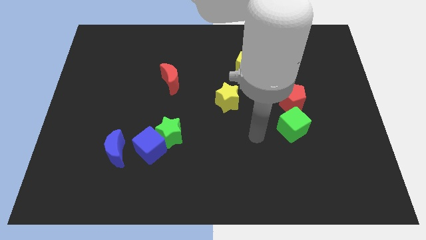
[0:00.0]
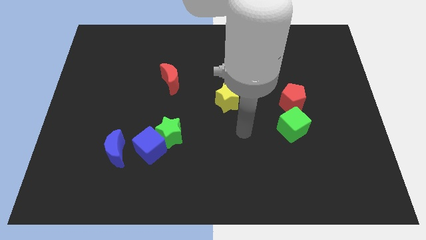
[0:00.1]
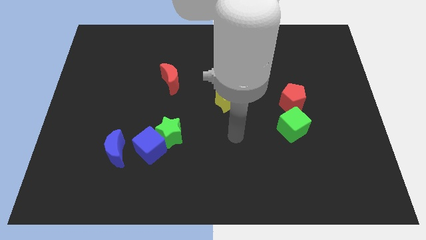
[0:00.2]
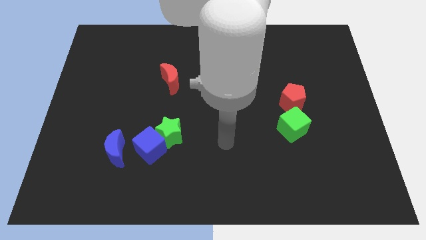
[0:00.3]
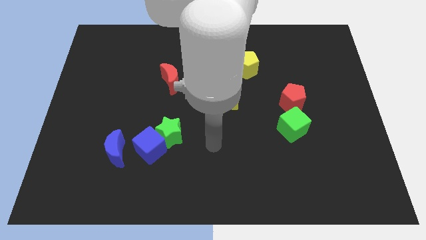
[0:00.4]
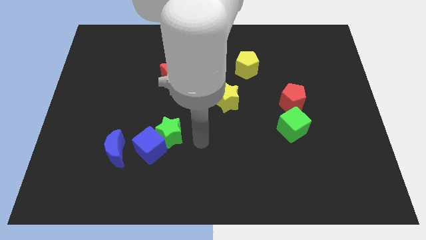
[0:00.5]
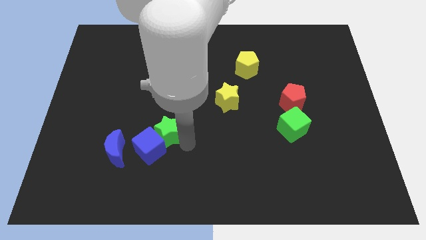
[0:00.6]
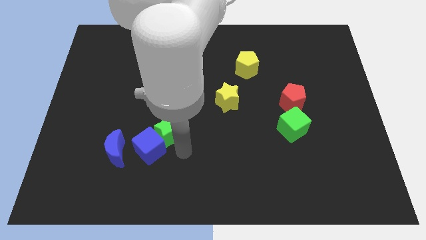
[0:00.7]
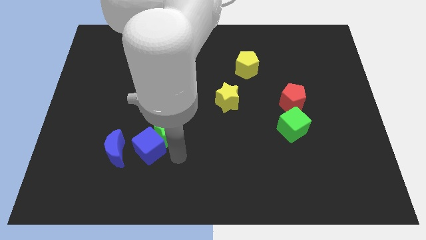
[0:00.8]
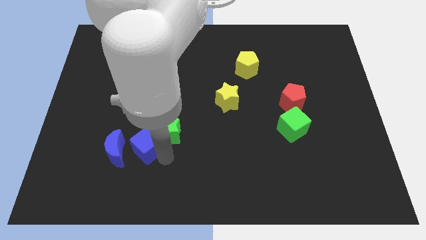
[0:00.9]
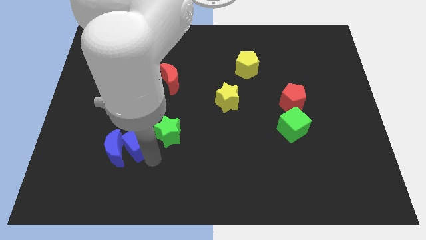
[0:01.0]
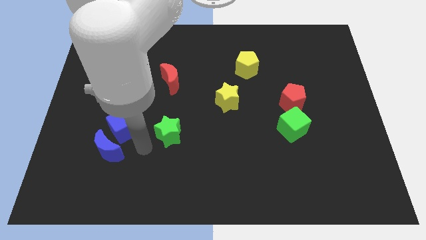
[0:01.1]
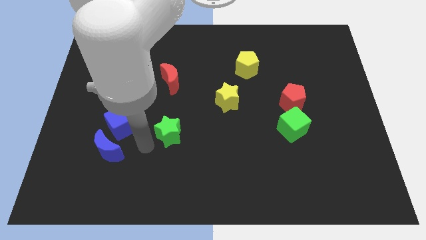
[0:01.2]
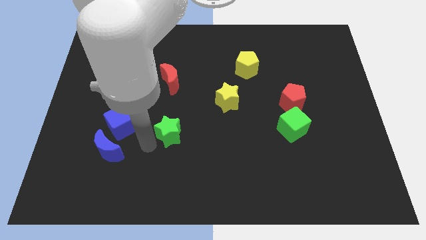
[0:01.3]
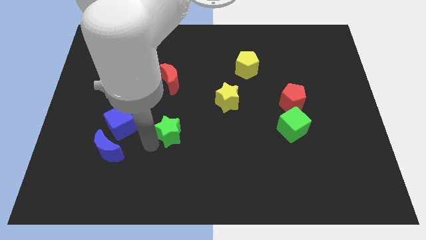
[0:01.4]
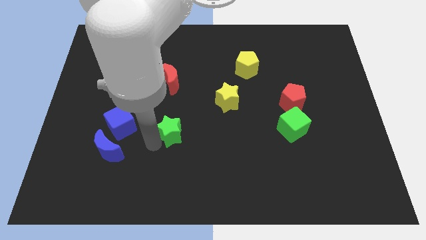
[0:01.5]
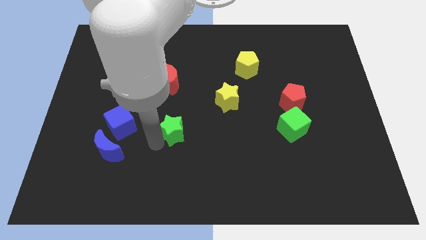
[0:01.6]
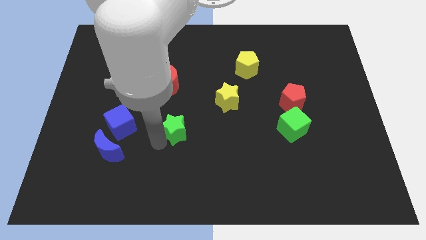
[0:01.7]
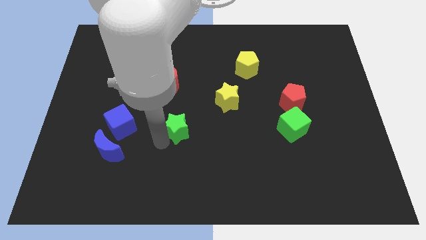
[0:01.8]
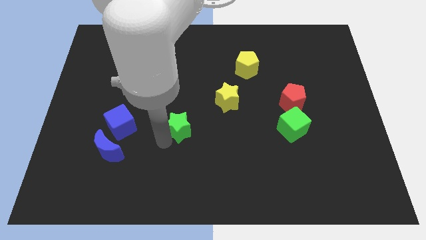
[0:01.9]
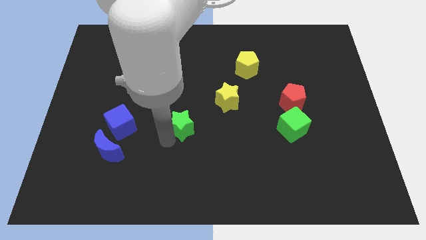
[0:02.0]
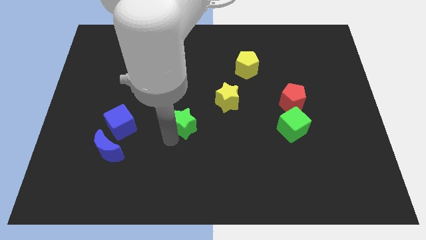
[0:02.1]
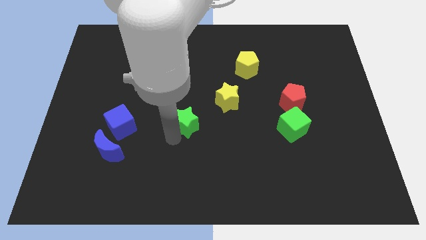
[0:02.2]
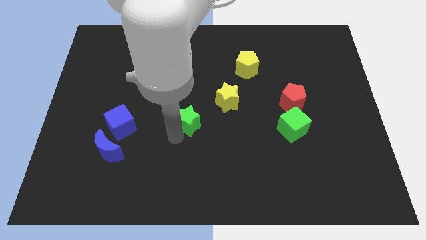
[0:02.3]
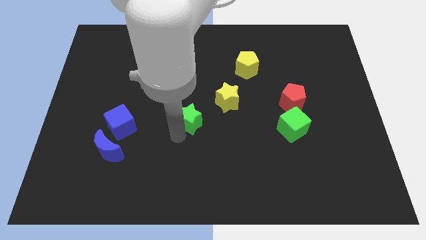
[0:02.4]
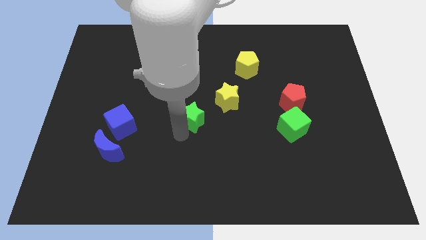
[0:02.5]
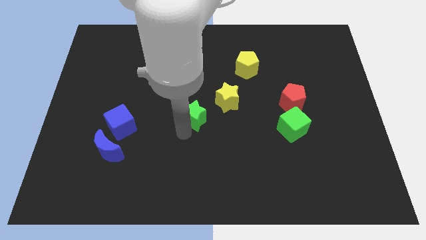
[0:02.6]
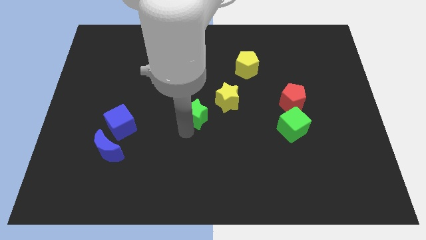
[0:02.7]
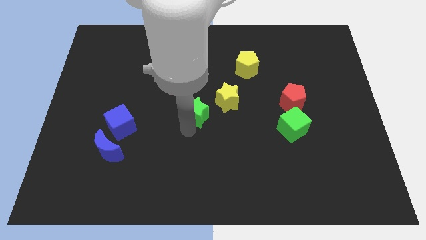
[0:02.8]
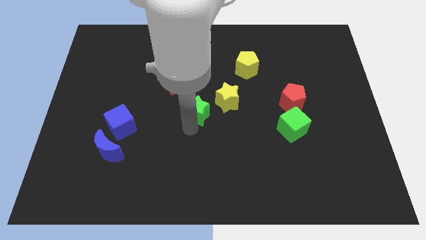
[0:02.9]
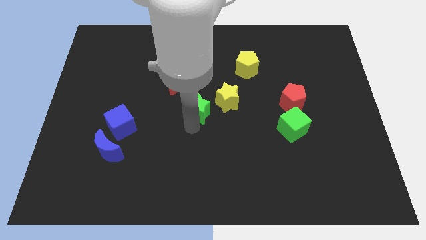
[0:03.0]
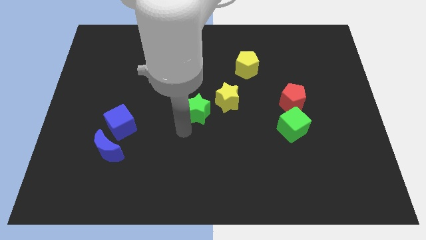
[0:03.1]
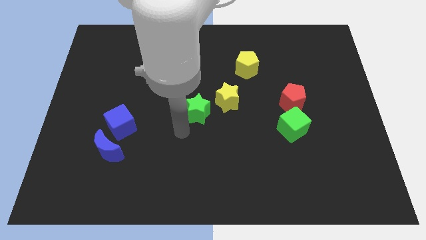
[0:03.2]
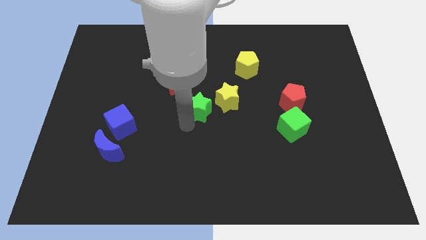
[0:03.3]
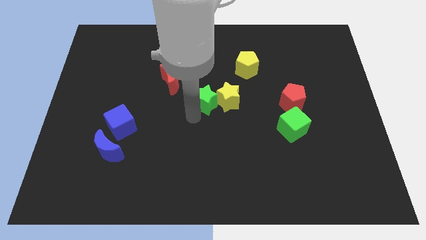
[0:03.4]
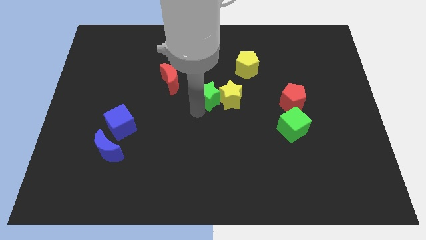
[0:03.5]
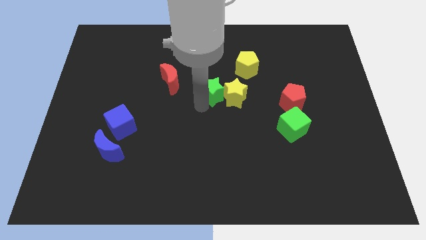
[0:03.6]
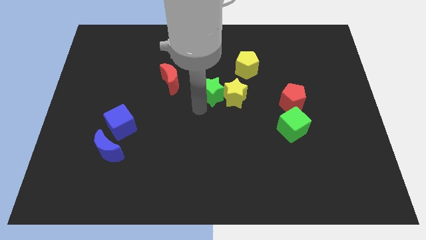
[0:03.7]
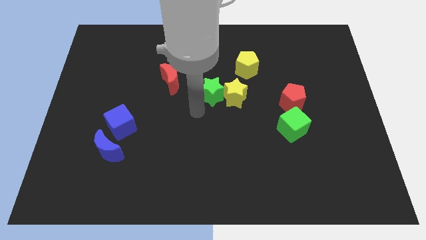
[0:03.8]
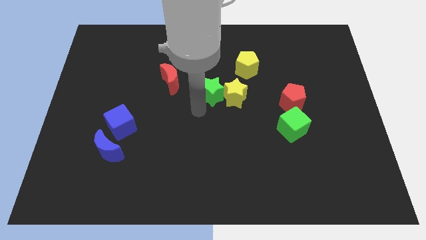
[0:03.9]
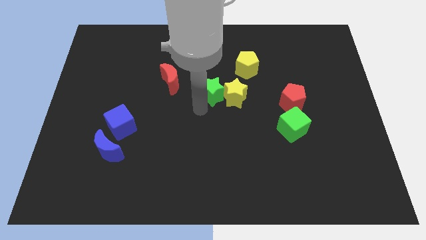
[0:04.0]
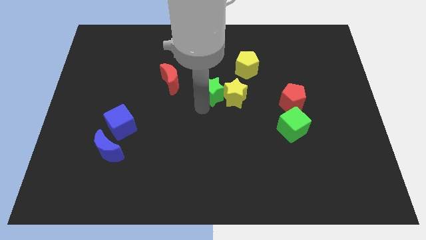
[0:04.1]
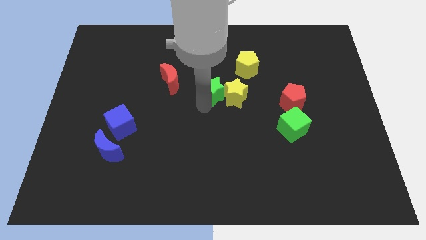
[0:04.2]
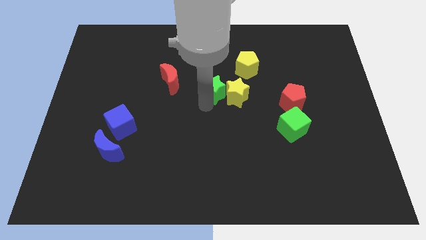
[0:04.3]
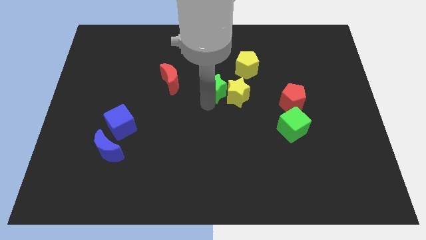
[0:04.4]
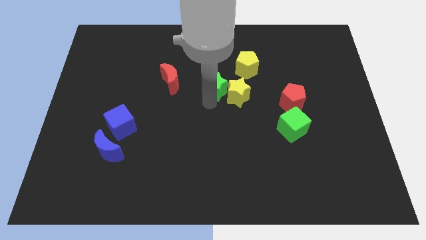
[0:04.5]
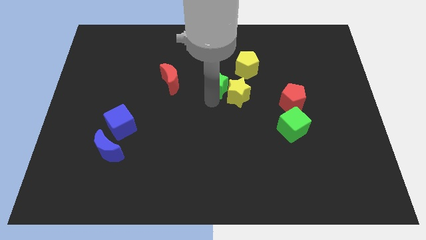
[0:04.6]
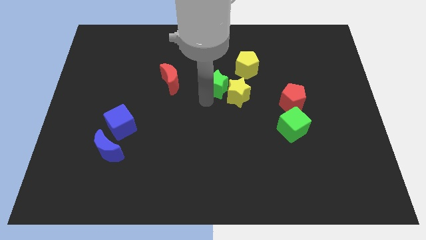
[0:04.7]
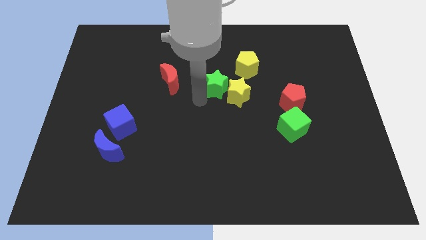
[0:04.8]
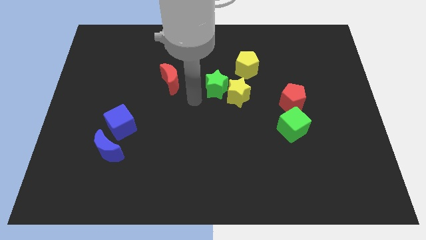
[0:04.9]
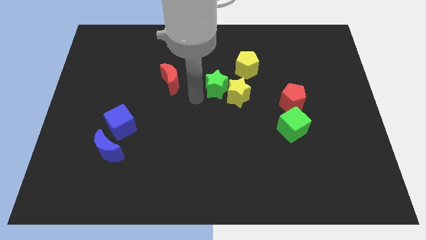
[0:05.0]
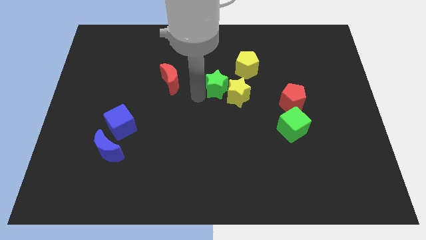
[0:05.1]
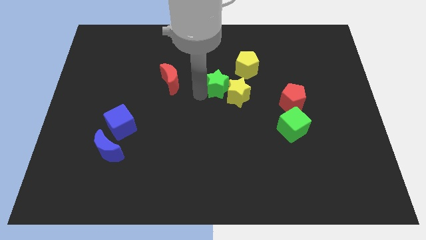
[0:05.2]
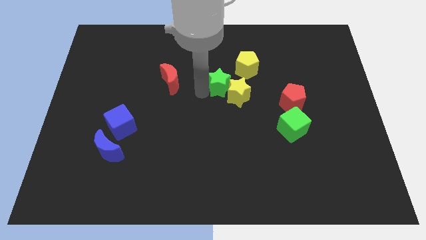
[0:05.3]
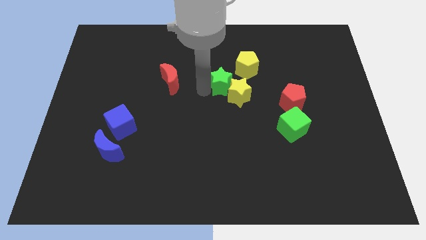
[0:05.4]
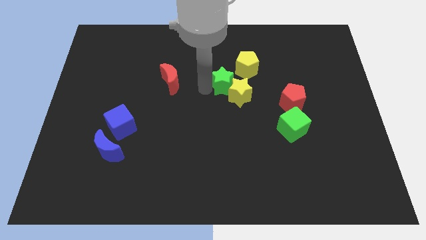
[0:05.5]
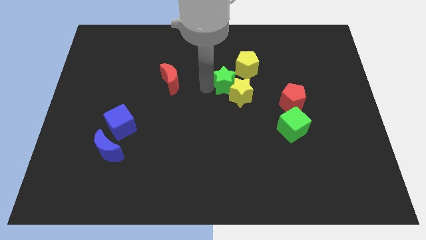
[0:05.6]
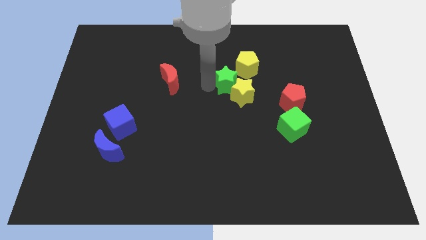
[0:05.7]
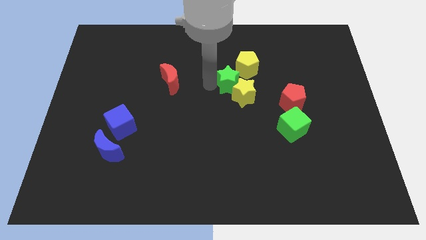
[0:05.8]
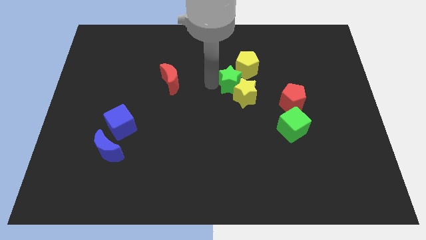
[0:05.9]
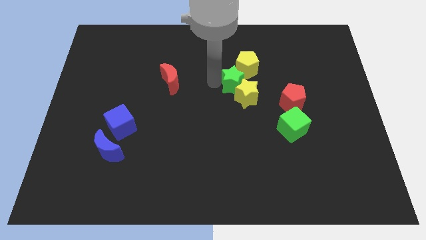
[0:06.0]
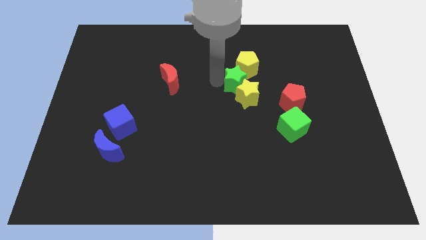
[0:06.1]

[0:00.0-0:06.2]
move the green star to the yellow pentagon
